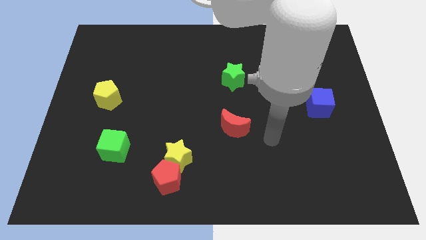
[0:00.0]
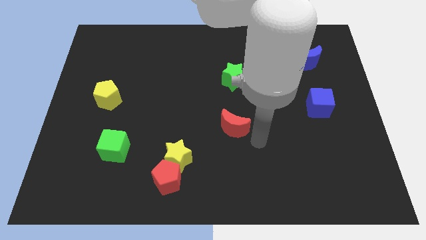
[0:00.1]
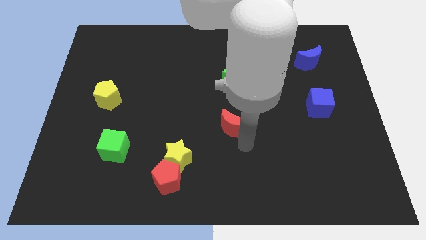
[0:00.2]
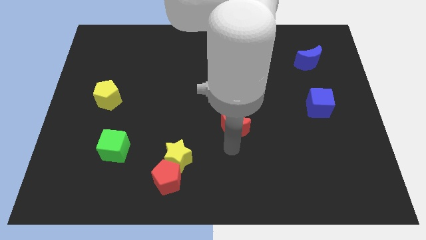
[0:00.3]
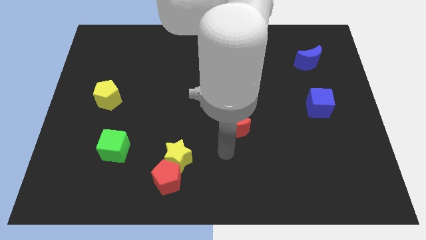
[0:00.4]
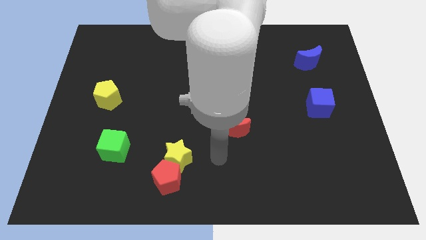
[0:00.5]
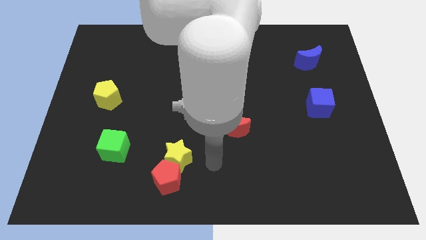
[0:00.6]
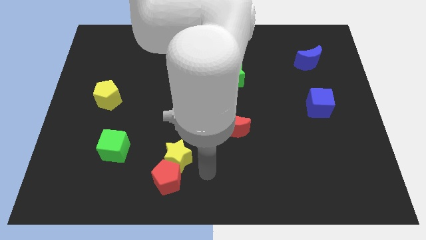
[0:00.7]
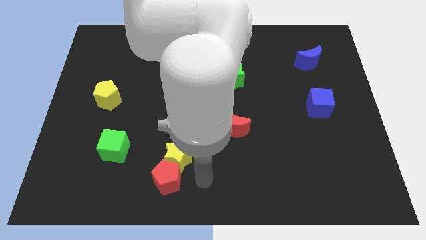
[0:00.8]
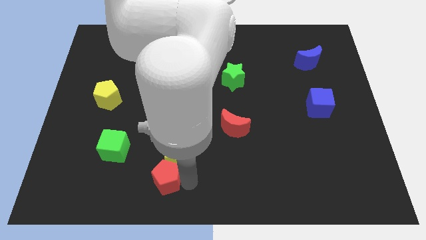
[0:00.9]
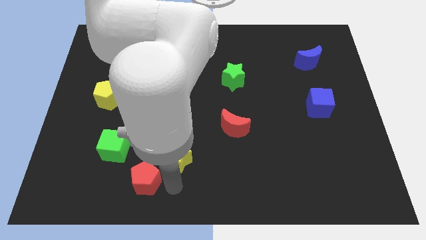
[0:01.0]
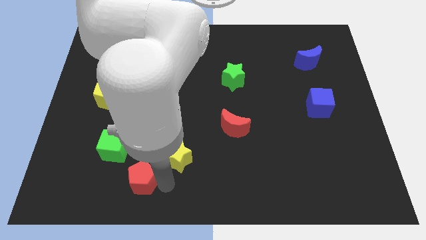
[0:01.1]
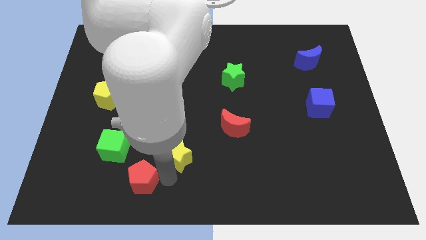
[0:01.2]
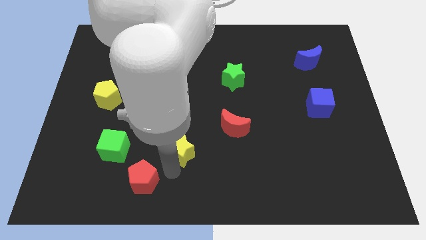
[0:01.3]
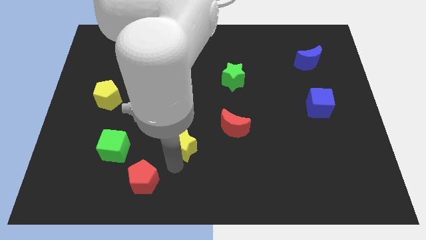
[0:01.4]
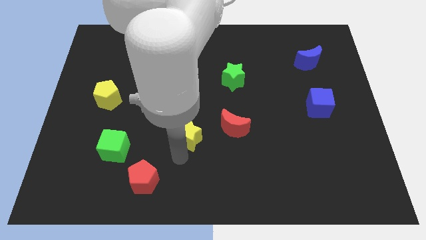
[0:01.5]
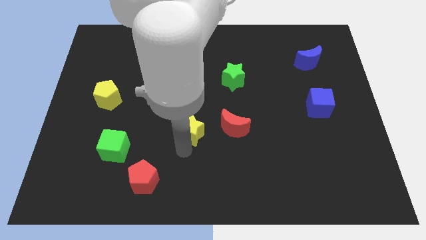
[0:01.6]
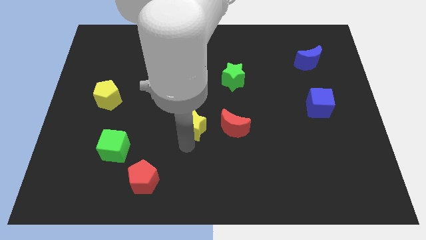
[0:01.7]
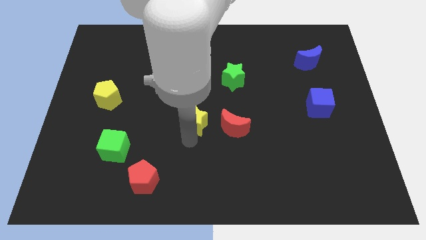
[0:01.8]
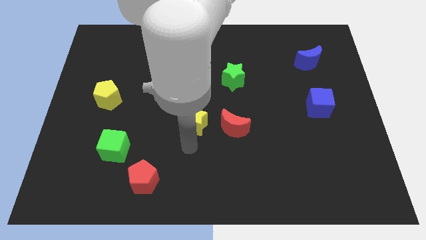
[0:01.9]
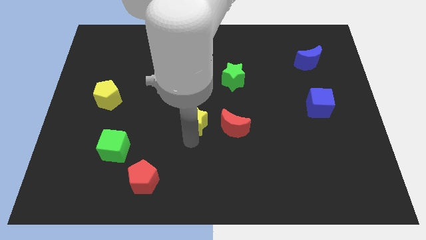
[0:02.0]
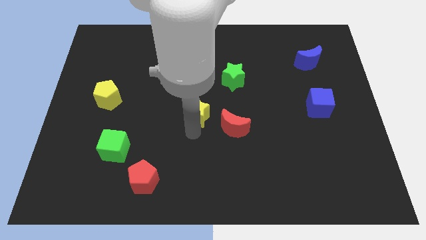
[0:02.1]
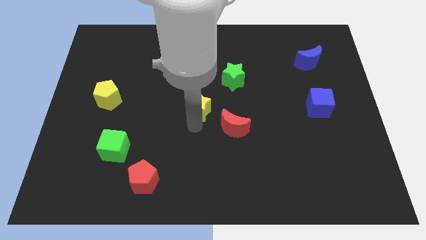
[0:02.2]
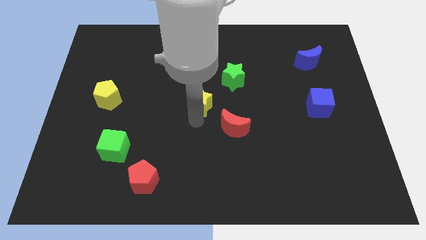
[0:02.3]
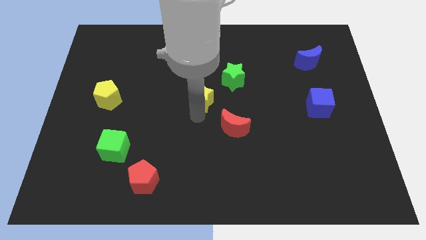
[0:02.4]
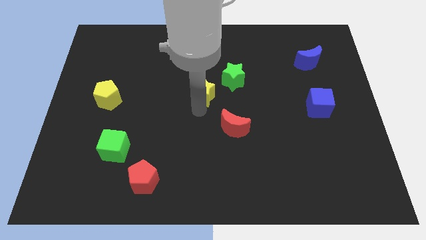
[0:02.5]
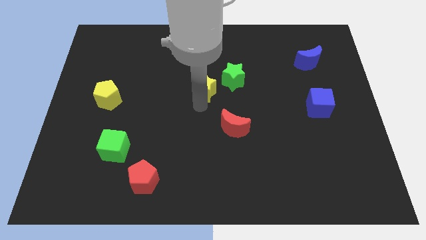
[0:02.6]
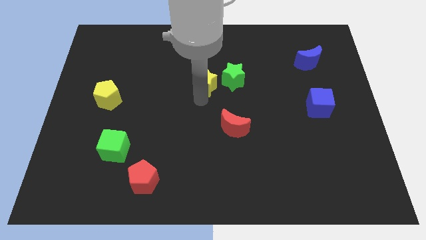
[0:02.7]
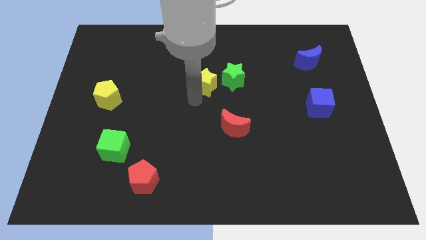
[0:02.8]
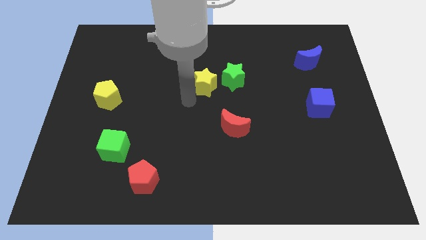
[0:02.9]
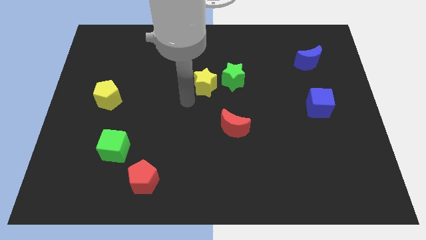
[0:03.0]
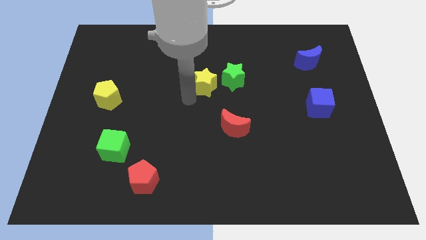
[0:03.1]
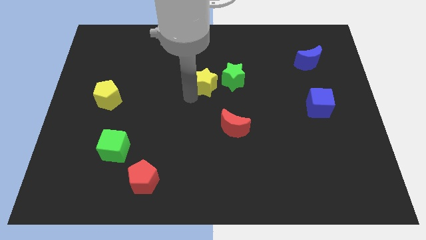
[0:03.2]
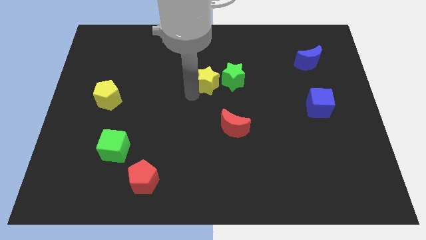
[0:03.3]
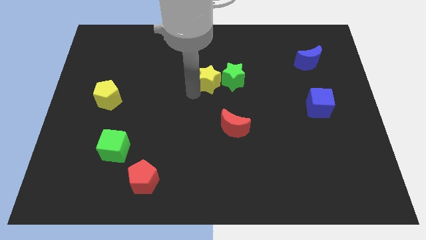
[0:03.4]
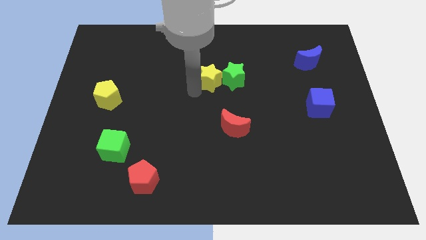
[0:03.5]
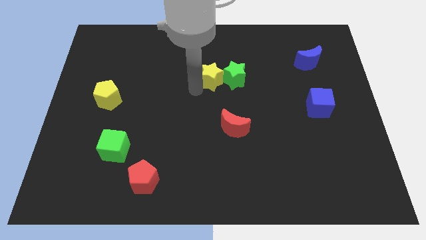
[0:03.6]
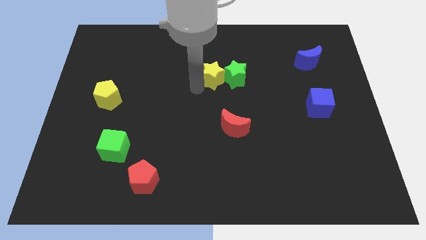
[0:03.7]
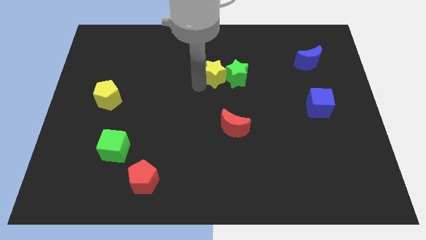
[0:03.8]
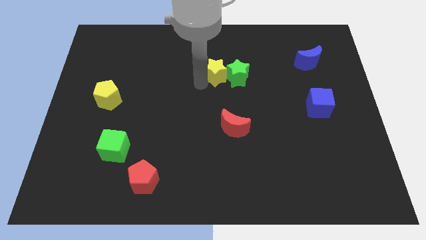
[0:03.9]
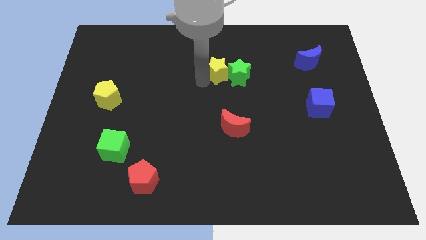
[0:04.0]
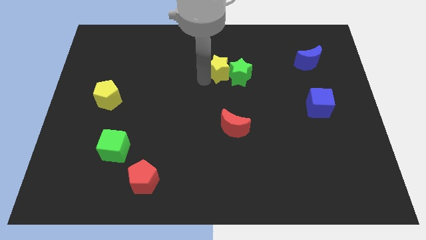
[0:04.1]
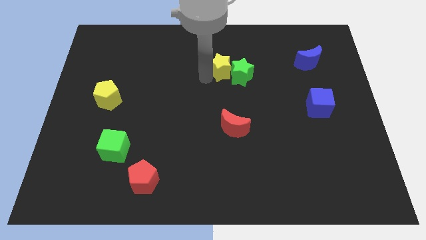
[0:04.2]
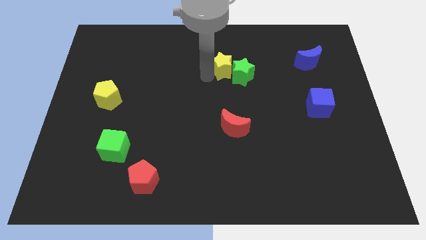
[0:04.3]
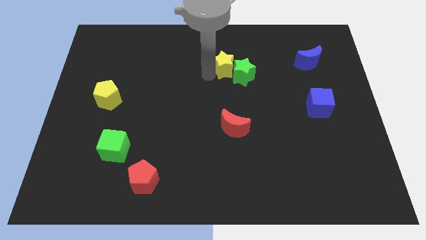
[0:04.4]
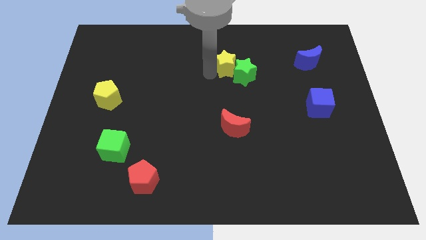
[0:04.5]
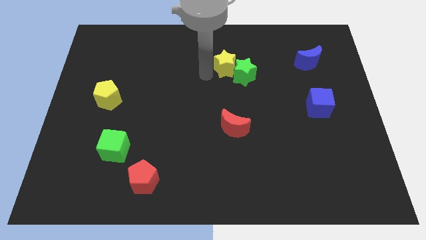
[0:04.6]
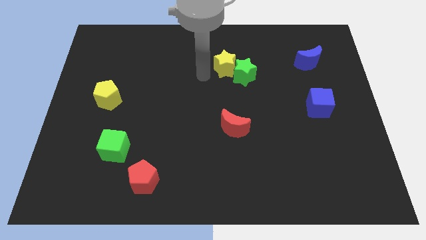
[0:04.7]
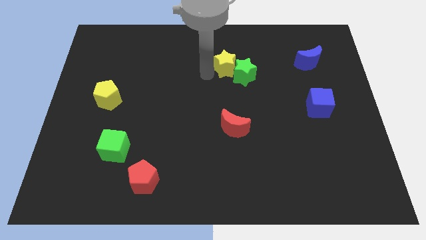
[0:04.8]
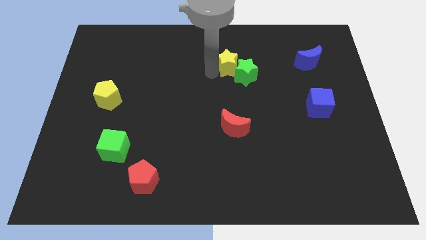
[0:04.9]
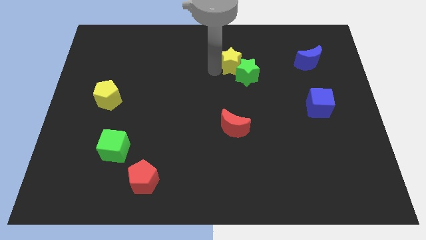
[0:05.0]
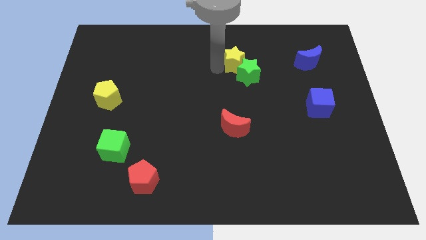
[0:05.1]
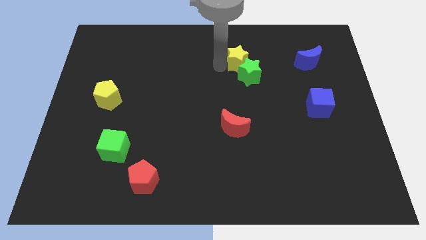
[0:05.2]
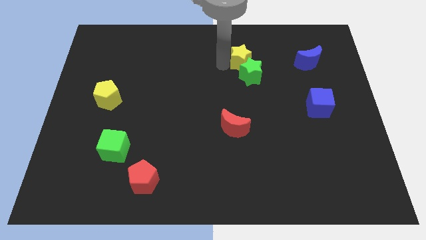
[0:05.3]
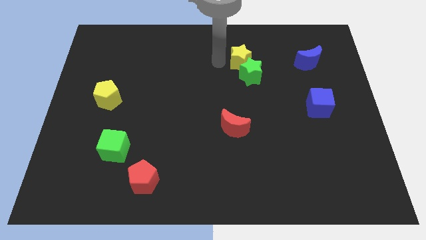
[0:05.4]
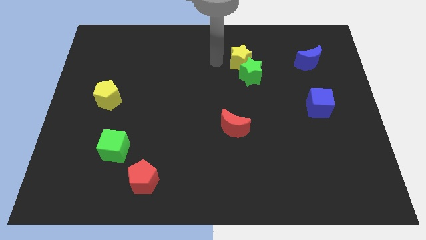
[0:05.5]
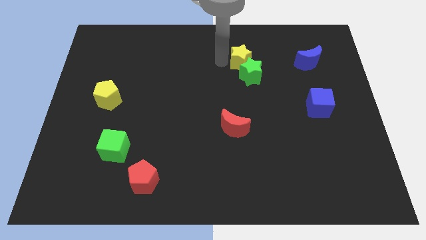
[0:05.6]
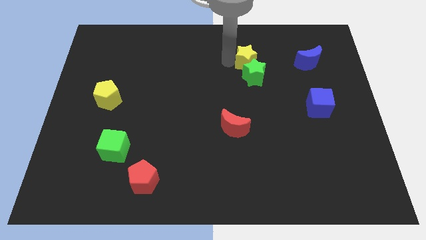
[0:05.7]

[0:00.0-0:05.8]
put the yellow star to the left of the blue moon

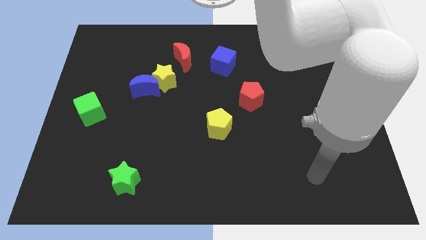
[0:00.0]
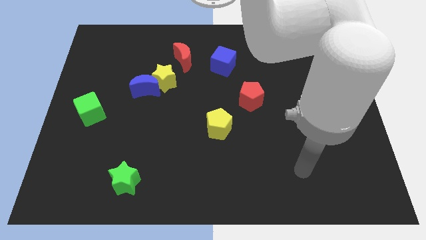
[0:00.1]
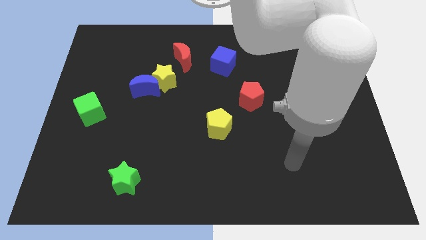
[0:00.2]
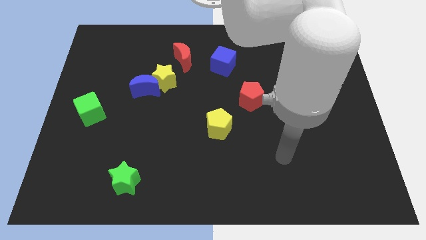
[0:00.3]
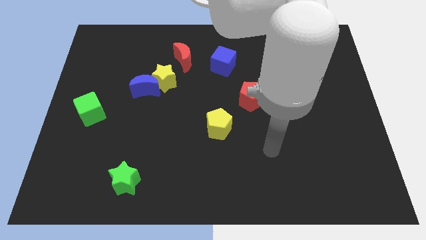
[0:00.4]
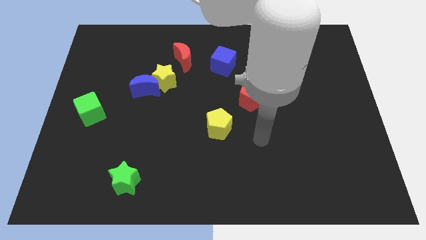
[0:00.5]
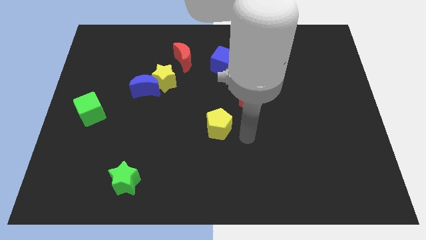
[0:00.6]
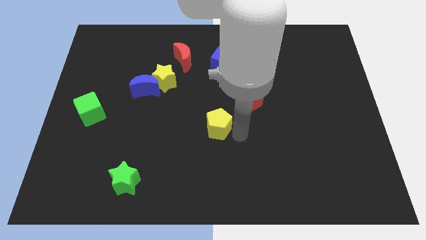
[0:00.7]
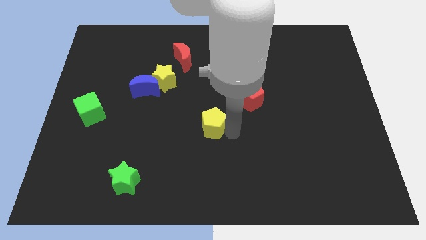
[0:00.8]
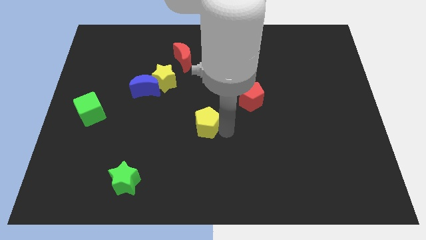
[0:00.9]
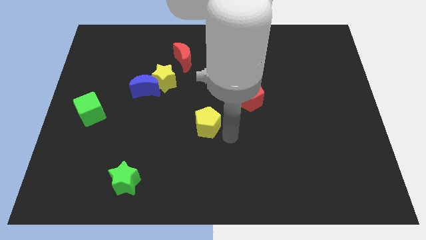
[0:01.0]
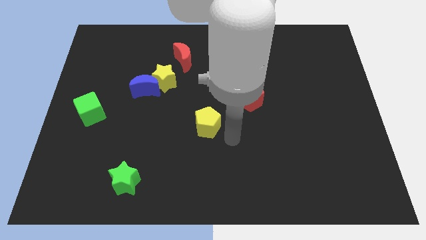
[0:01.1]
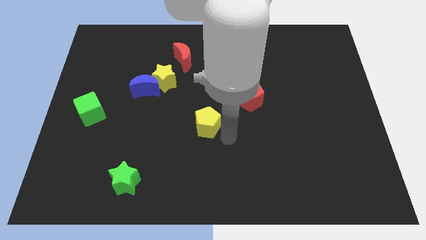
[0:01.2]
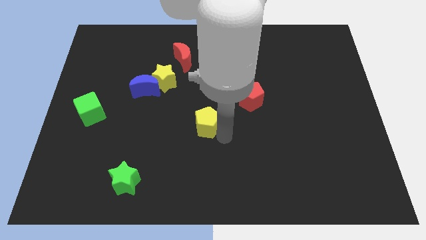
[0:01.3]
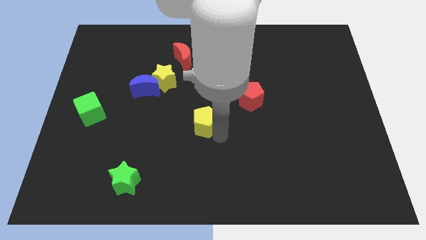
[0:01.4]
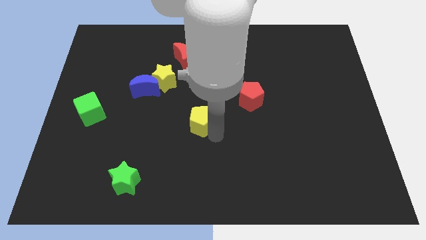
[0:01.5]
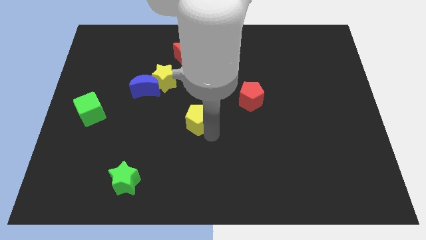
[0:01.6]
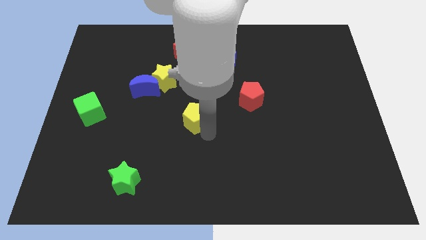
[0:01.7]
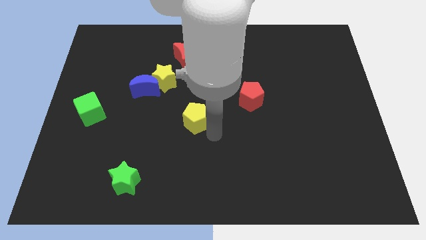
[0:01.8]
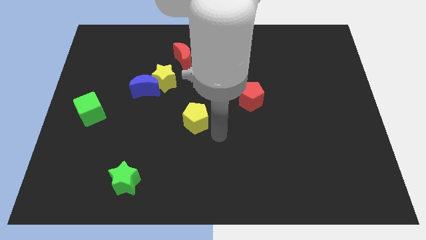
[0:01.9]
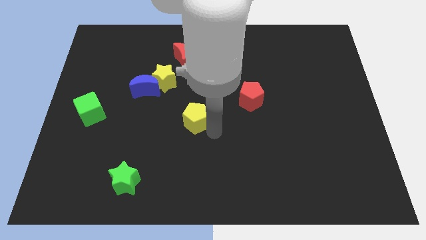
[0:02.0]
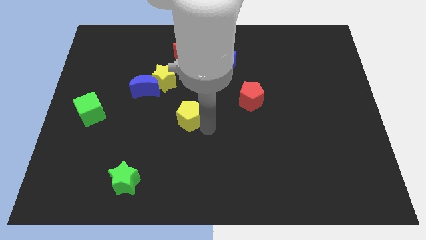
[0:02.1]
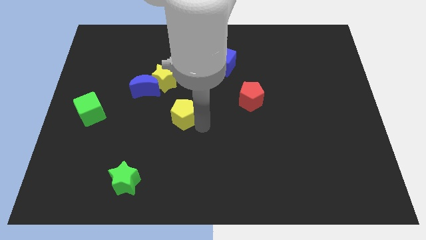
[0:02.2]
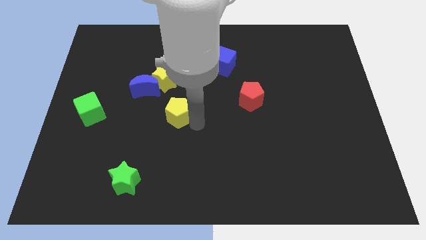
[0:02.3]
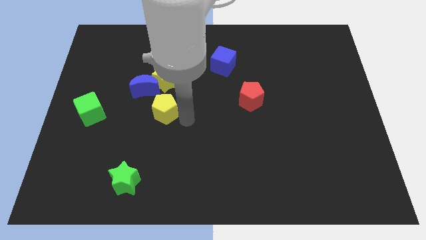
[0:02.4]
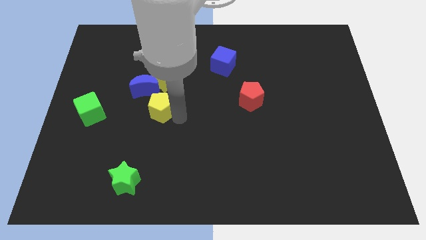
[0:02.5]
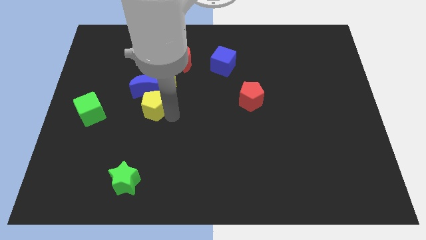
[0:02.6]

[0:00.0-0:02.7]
move the yellow pentagon to the bottom left of the yellow star
